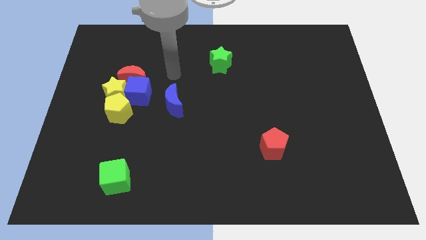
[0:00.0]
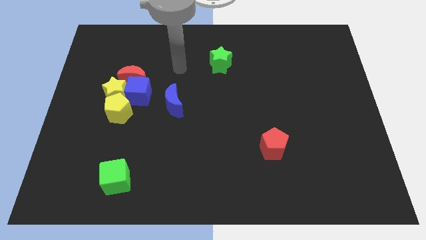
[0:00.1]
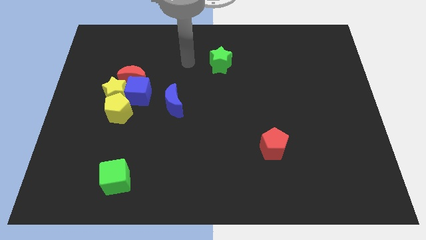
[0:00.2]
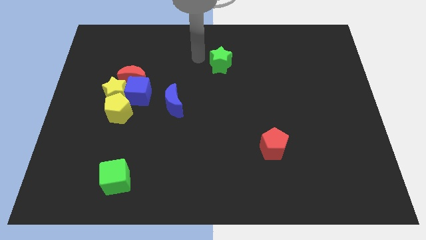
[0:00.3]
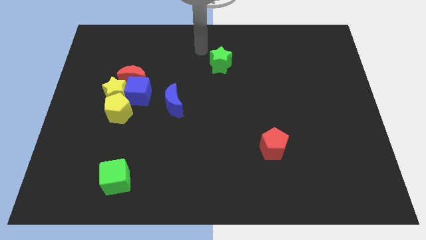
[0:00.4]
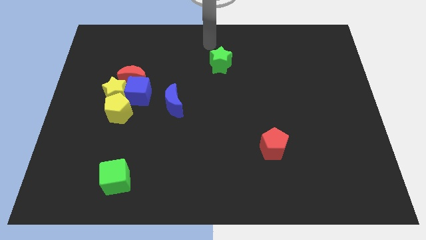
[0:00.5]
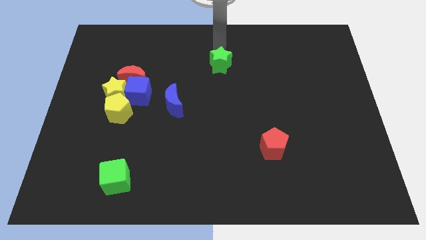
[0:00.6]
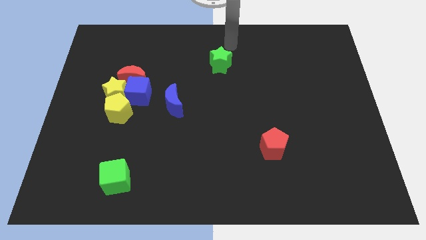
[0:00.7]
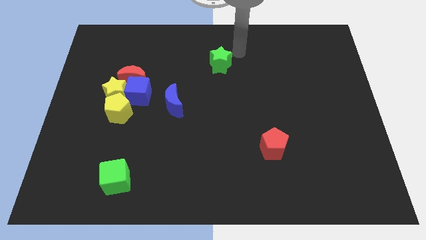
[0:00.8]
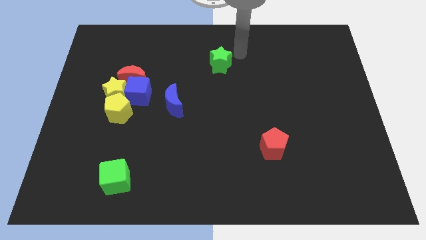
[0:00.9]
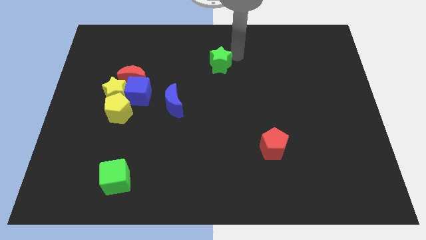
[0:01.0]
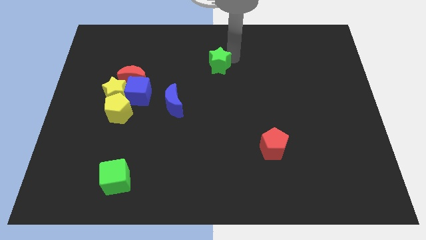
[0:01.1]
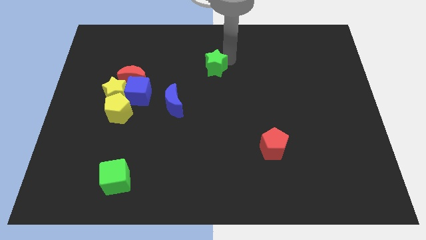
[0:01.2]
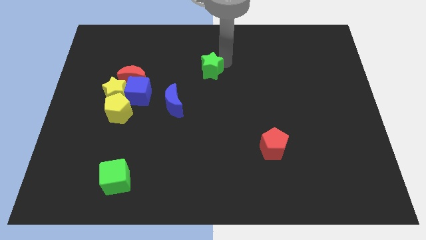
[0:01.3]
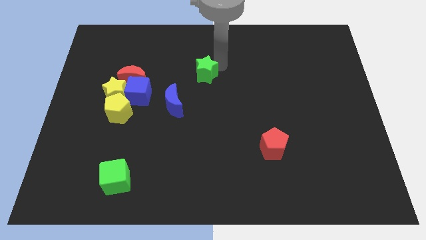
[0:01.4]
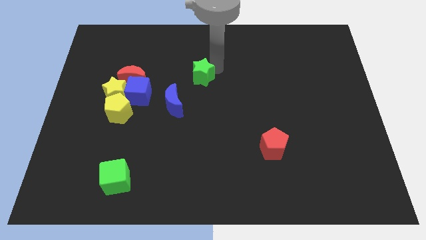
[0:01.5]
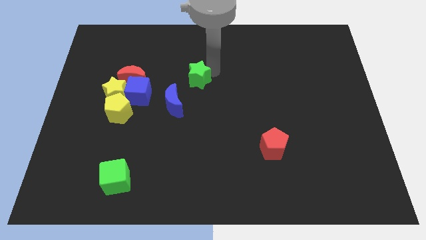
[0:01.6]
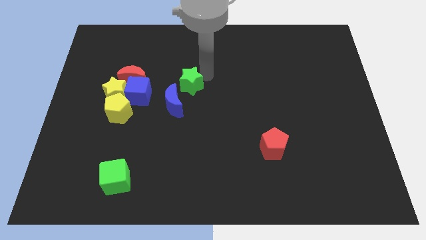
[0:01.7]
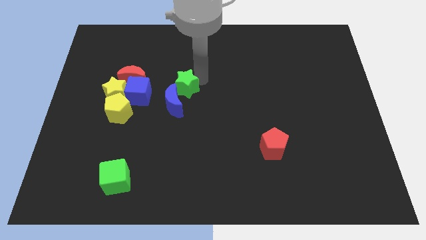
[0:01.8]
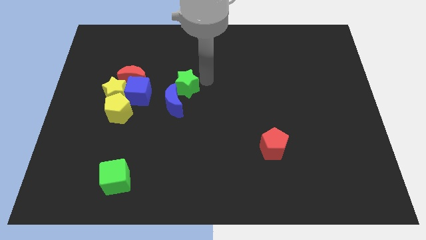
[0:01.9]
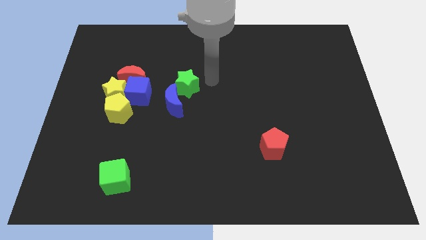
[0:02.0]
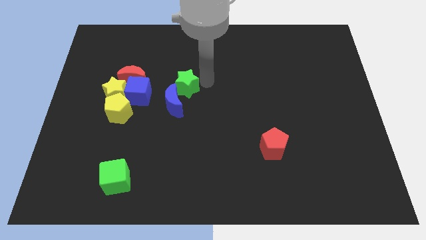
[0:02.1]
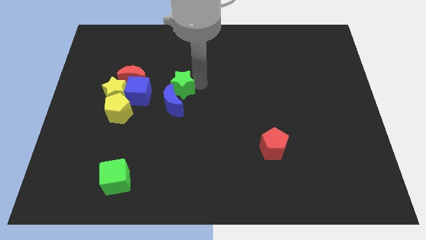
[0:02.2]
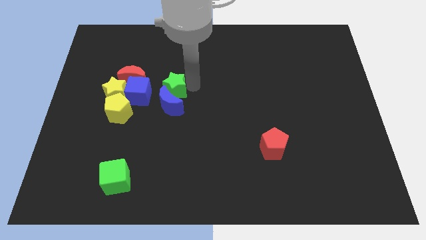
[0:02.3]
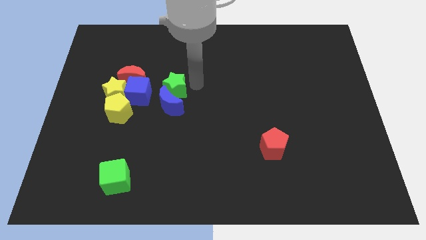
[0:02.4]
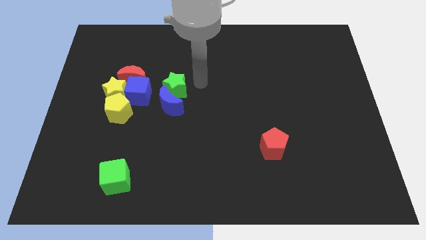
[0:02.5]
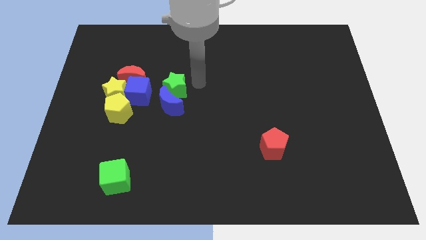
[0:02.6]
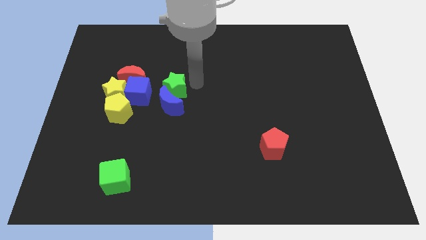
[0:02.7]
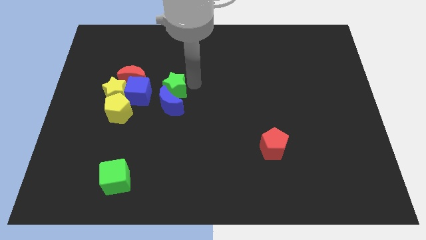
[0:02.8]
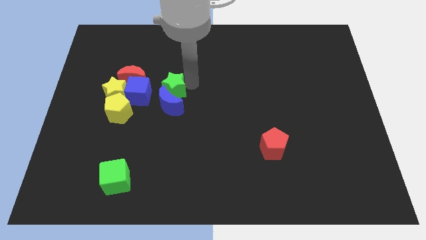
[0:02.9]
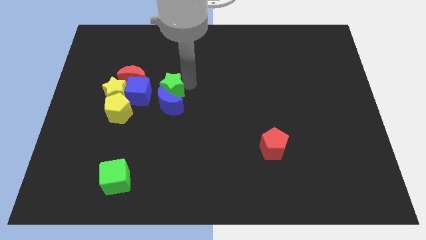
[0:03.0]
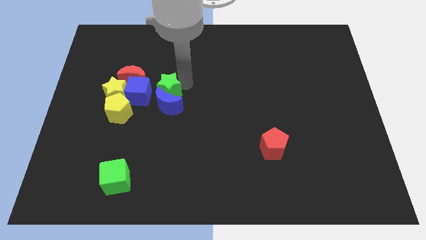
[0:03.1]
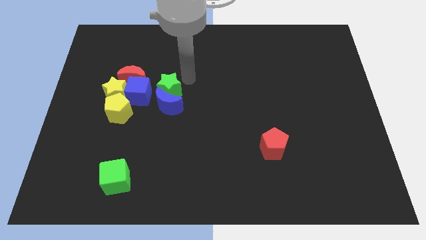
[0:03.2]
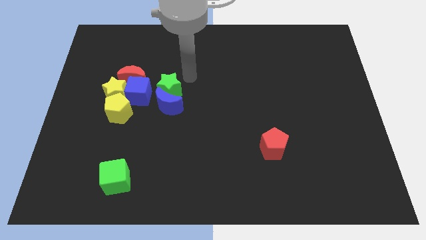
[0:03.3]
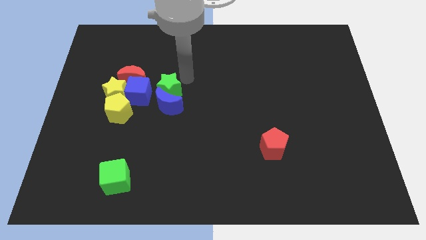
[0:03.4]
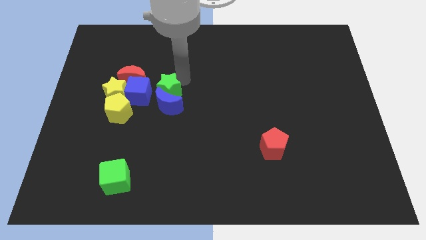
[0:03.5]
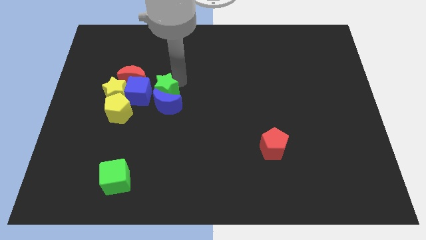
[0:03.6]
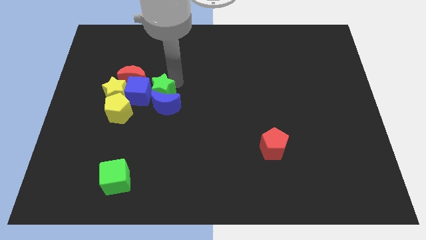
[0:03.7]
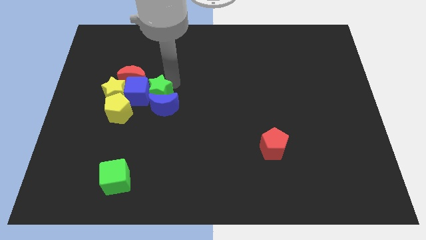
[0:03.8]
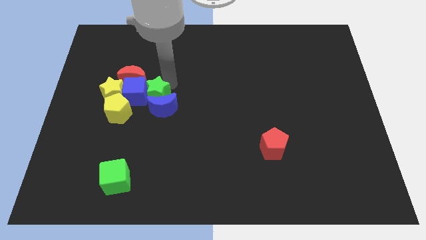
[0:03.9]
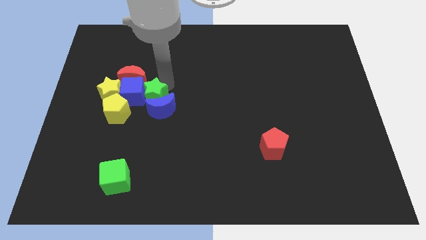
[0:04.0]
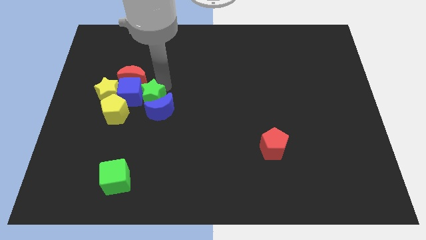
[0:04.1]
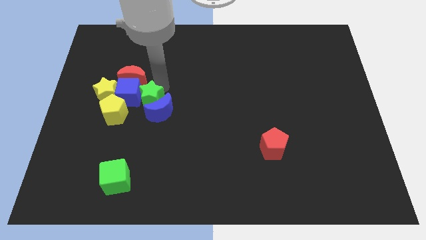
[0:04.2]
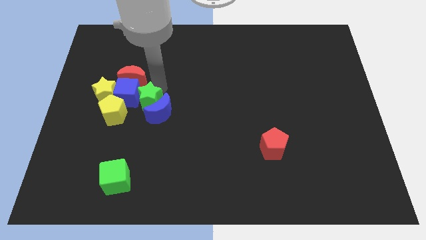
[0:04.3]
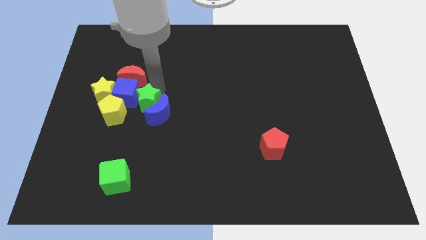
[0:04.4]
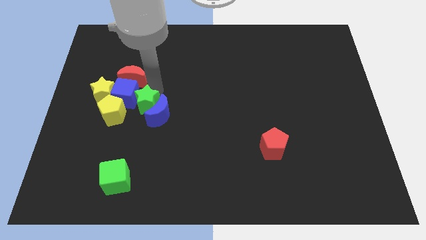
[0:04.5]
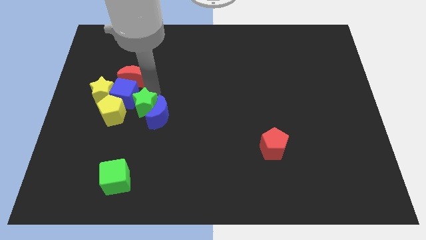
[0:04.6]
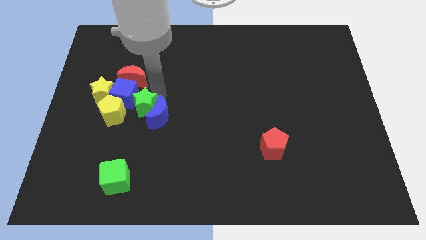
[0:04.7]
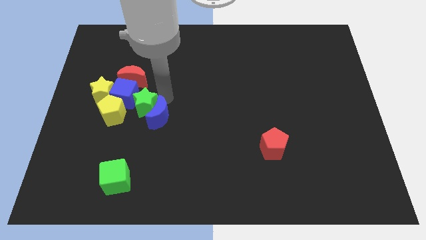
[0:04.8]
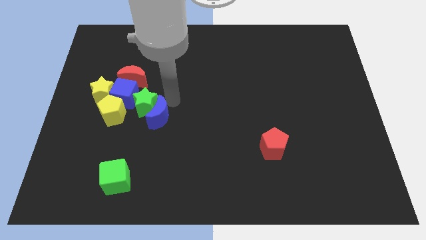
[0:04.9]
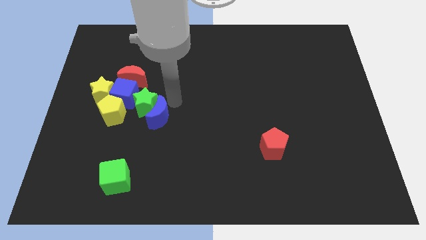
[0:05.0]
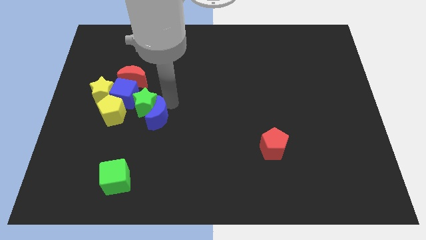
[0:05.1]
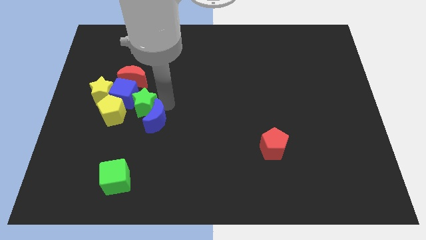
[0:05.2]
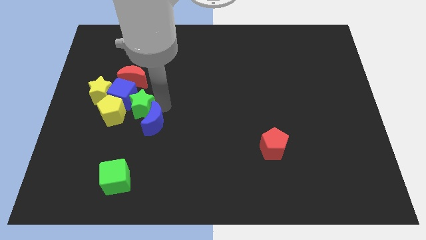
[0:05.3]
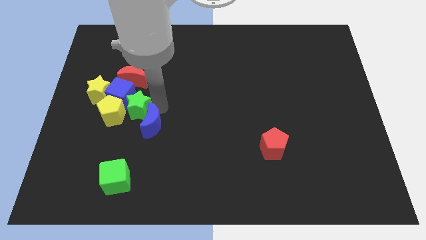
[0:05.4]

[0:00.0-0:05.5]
slide the green star to the yellow pentagon

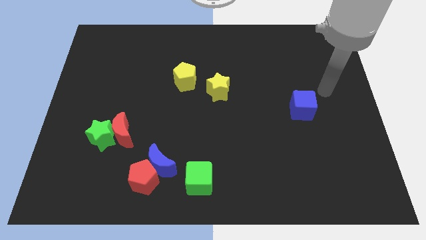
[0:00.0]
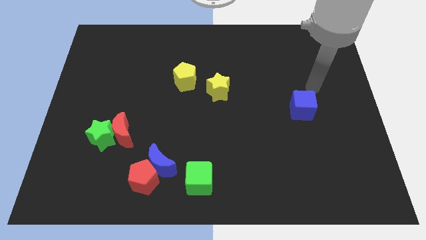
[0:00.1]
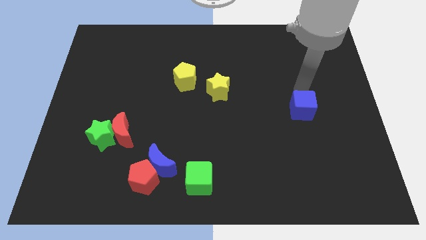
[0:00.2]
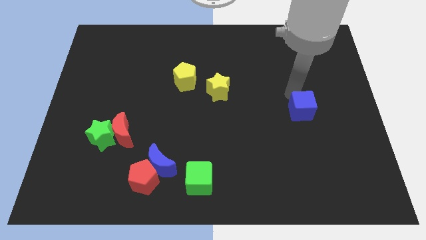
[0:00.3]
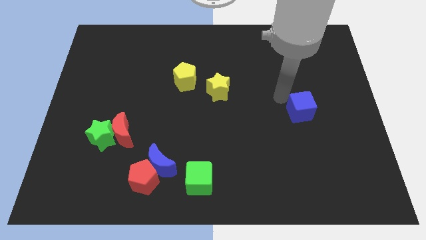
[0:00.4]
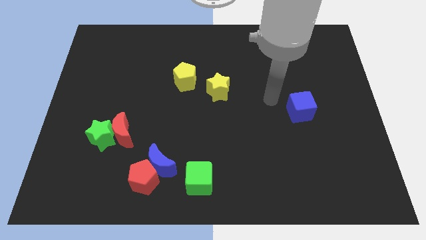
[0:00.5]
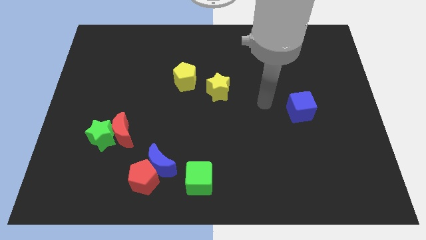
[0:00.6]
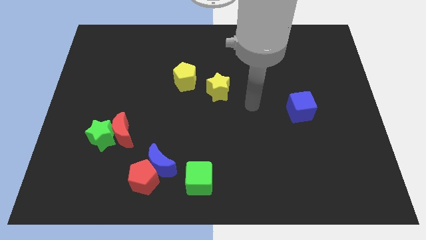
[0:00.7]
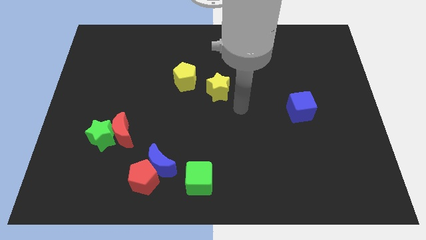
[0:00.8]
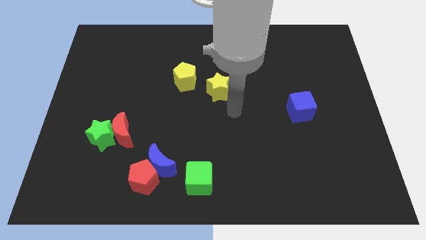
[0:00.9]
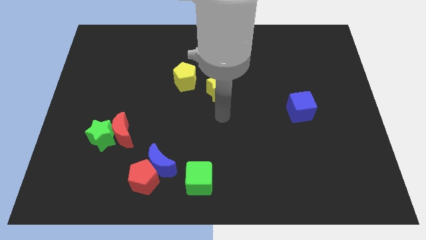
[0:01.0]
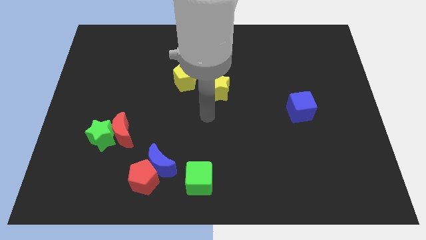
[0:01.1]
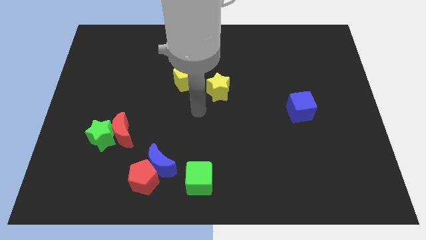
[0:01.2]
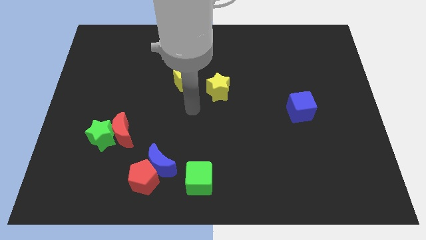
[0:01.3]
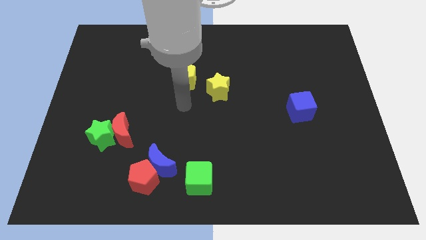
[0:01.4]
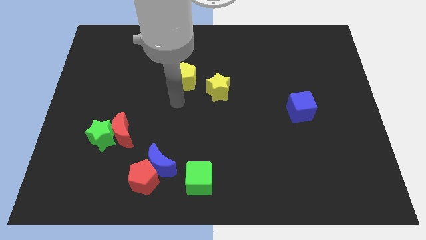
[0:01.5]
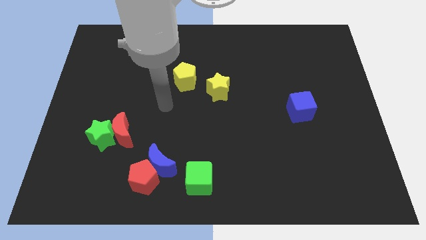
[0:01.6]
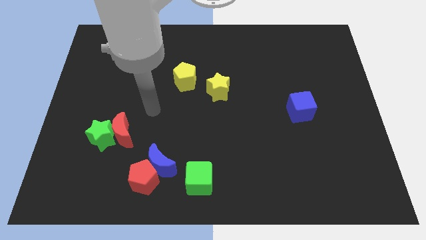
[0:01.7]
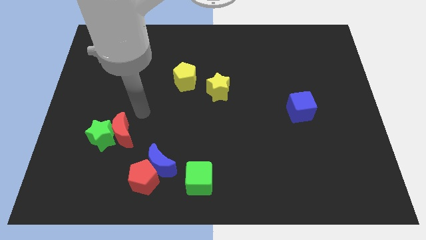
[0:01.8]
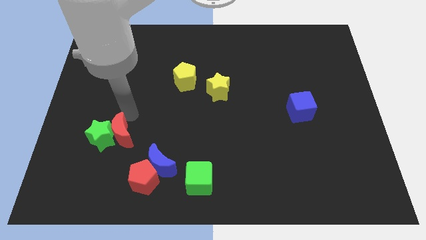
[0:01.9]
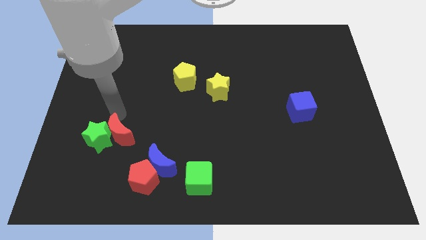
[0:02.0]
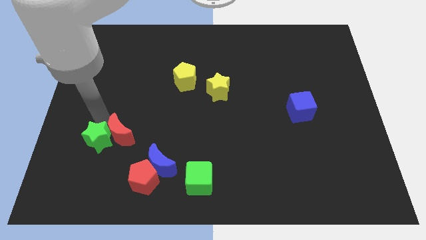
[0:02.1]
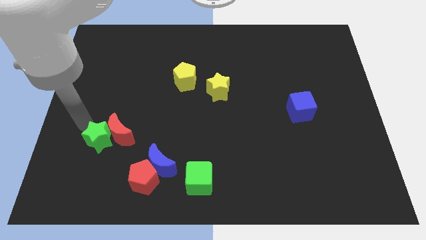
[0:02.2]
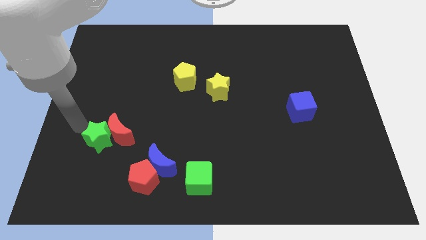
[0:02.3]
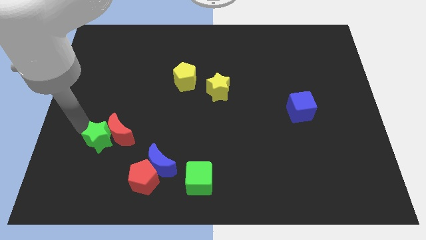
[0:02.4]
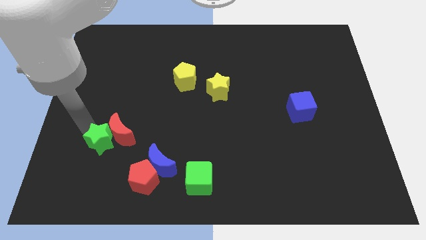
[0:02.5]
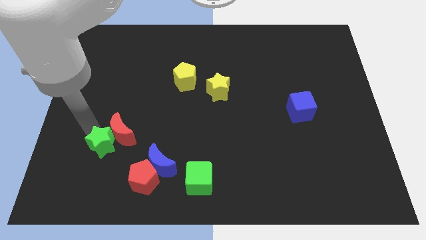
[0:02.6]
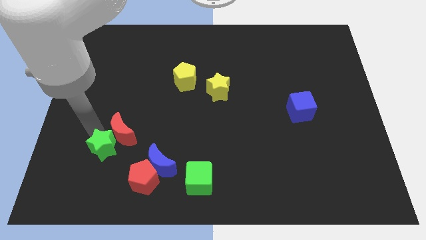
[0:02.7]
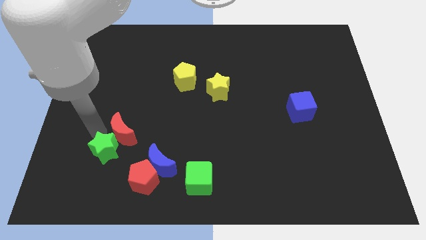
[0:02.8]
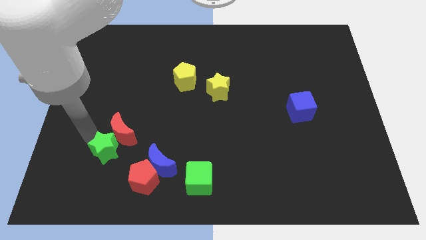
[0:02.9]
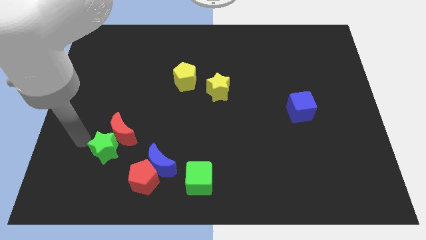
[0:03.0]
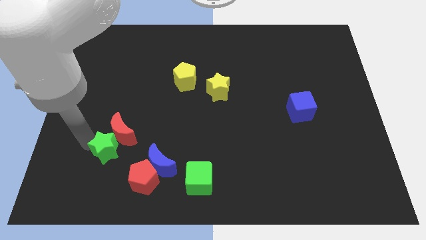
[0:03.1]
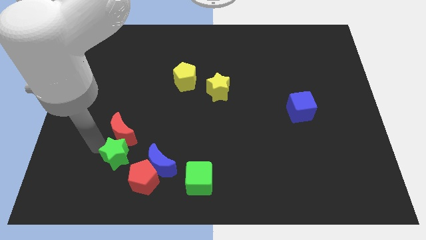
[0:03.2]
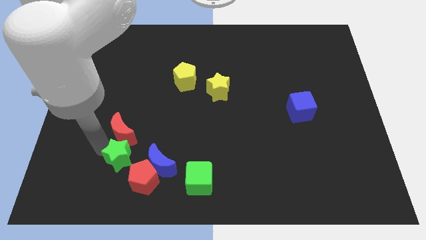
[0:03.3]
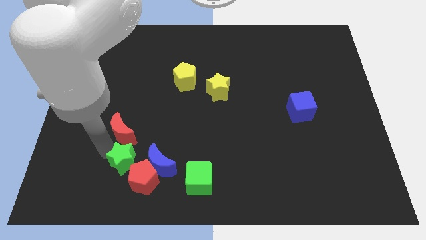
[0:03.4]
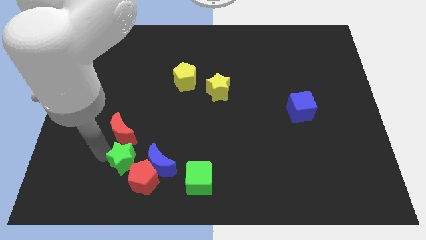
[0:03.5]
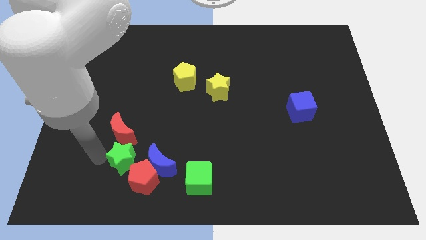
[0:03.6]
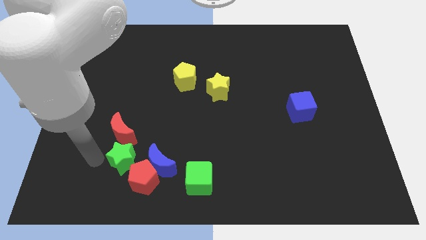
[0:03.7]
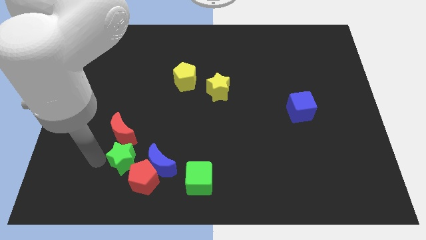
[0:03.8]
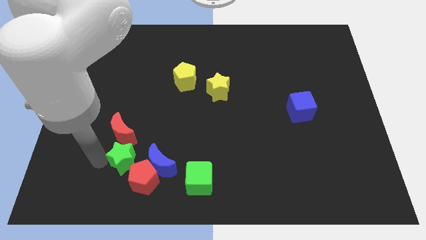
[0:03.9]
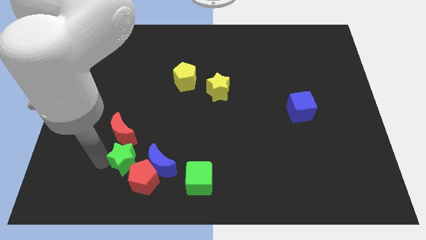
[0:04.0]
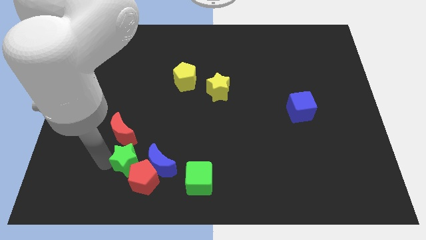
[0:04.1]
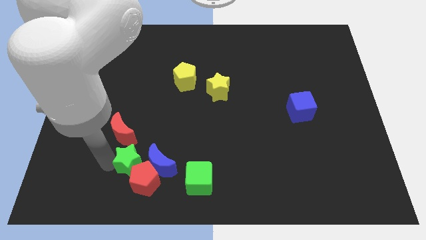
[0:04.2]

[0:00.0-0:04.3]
put the green star next to the blue moon
